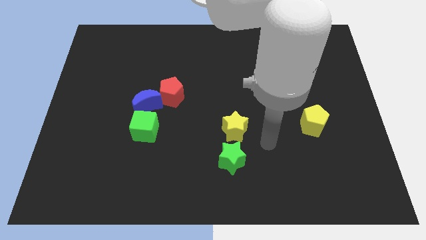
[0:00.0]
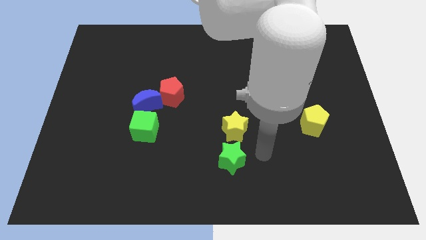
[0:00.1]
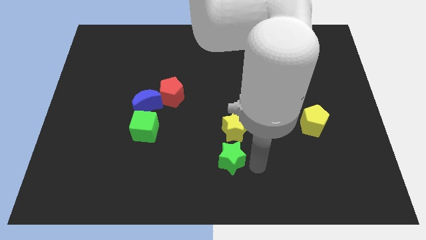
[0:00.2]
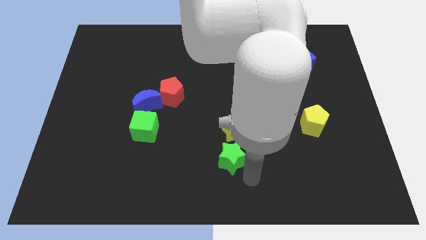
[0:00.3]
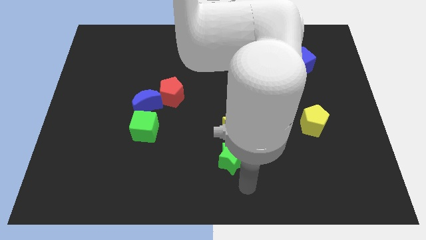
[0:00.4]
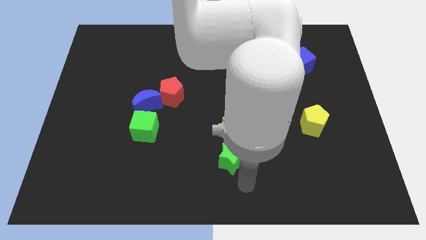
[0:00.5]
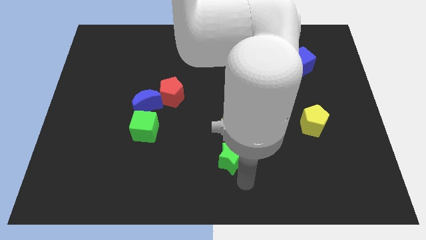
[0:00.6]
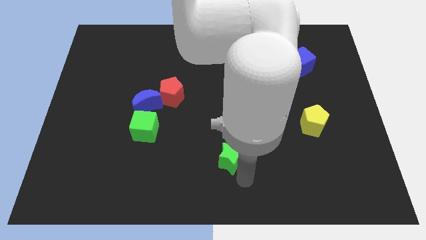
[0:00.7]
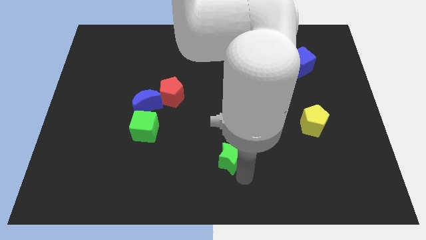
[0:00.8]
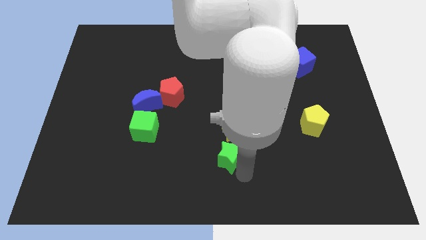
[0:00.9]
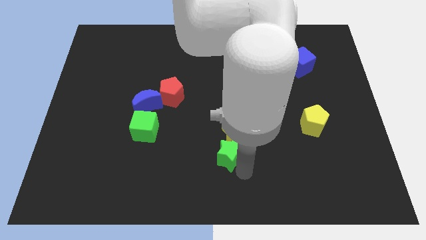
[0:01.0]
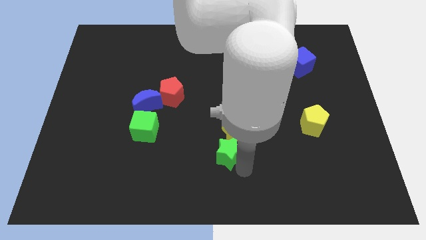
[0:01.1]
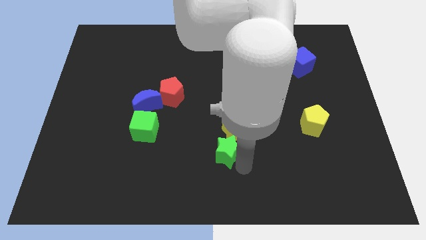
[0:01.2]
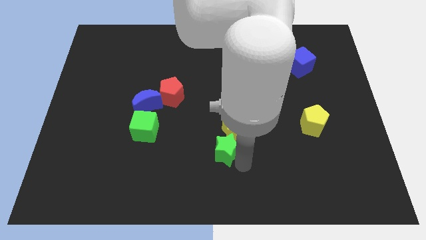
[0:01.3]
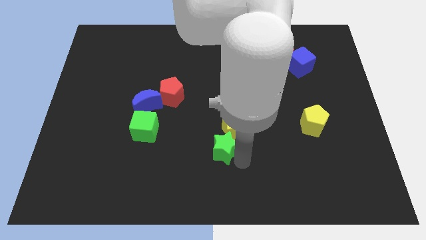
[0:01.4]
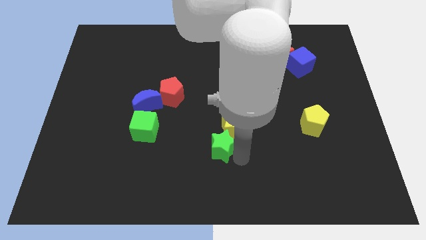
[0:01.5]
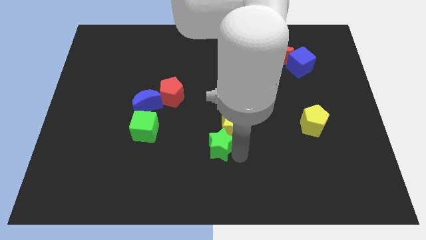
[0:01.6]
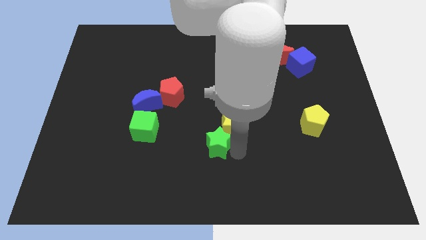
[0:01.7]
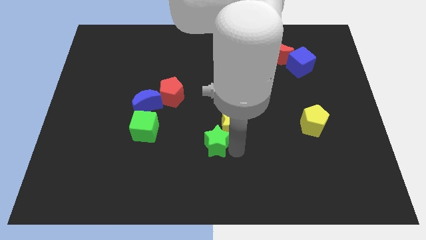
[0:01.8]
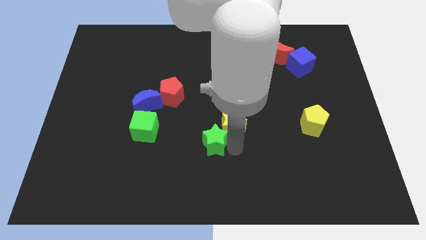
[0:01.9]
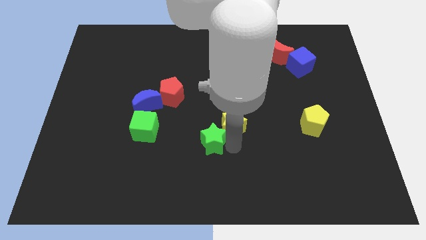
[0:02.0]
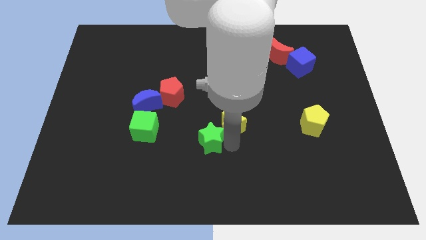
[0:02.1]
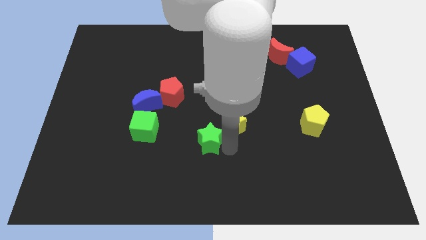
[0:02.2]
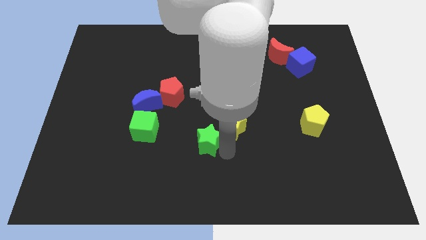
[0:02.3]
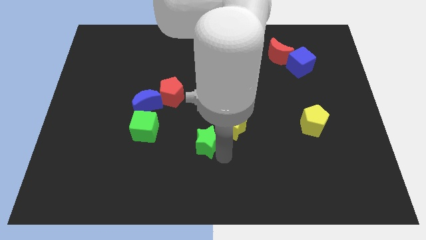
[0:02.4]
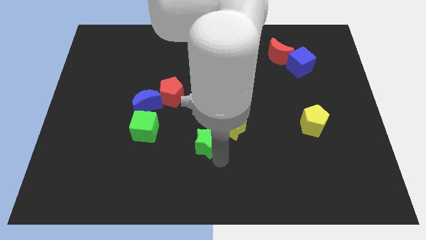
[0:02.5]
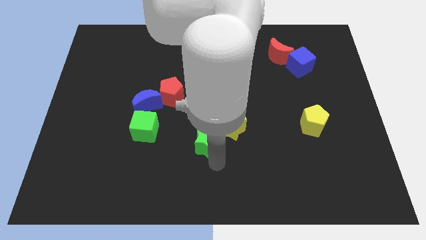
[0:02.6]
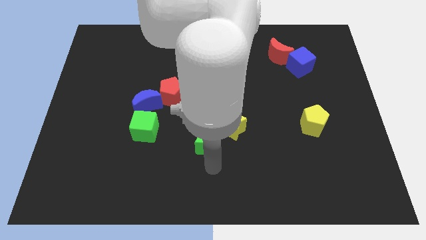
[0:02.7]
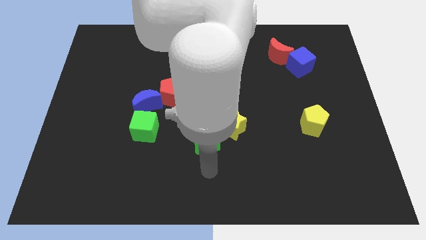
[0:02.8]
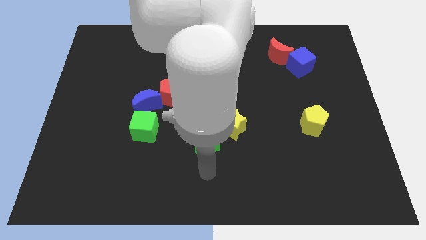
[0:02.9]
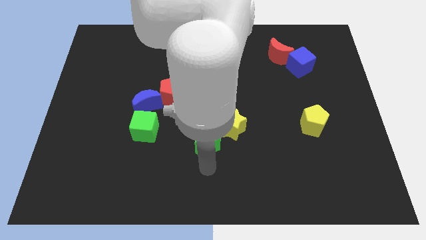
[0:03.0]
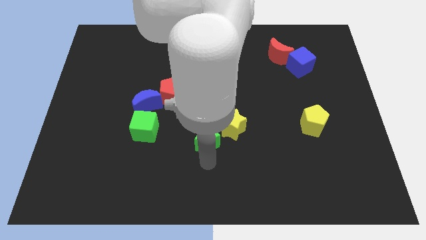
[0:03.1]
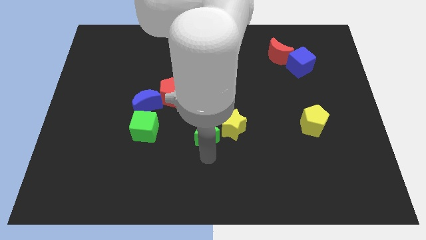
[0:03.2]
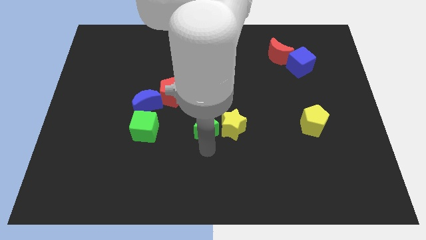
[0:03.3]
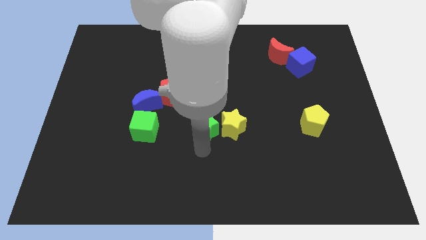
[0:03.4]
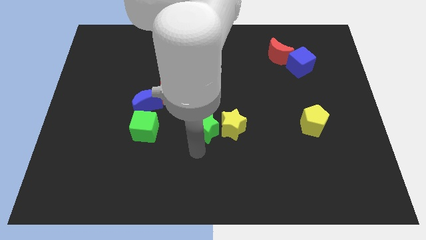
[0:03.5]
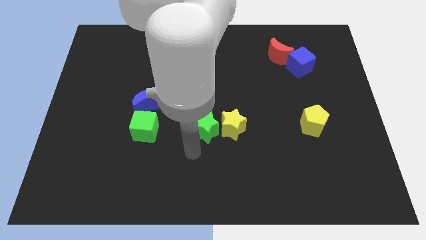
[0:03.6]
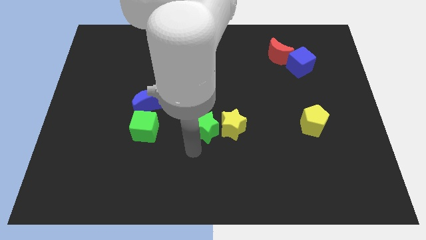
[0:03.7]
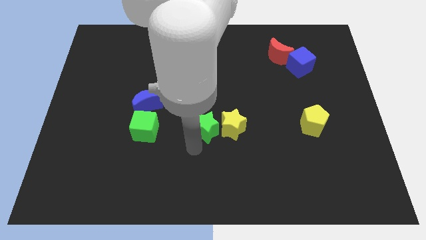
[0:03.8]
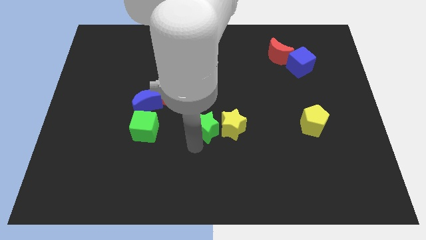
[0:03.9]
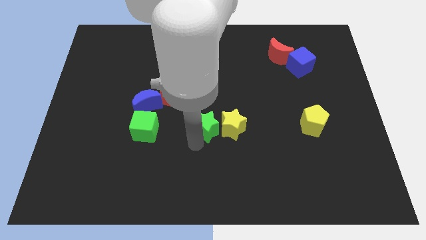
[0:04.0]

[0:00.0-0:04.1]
move the green star a little bit up

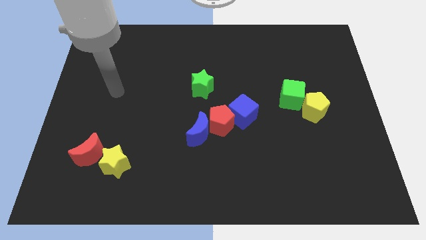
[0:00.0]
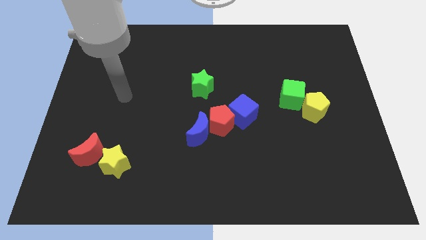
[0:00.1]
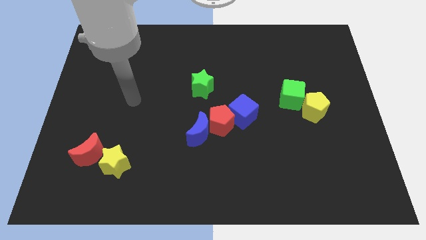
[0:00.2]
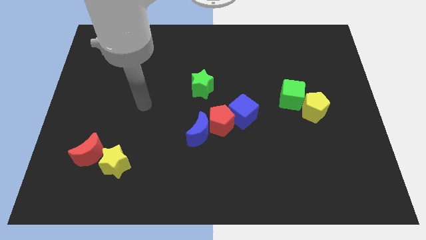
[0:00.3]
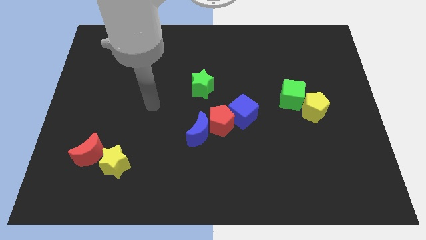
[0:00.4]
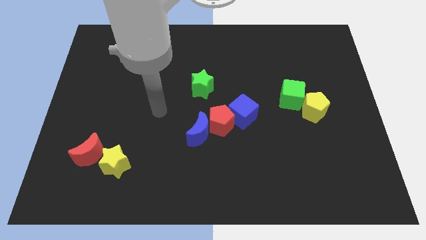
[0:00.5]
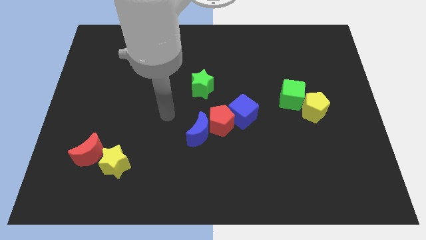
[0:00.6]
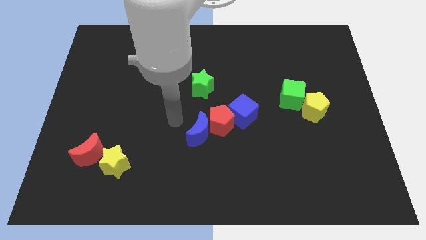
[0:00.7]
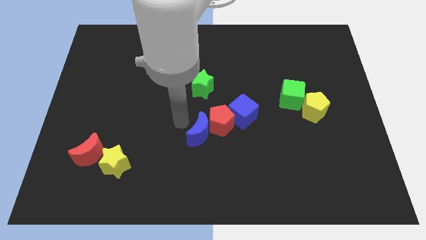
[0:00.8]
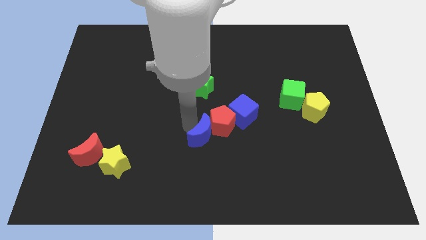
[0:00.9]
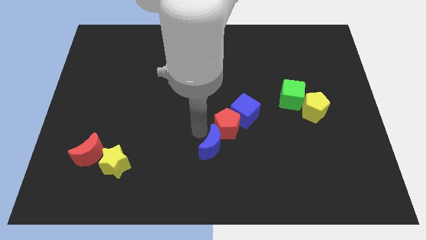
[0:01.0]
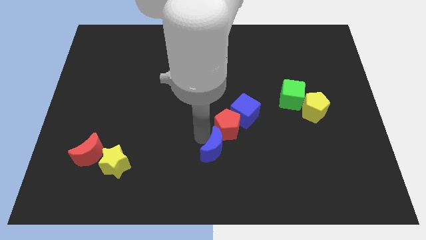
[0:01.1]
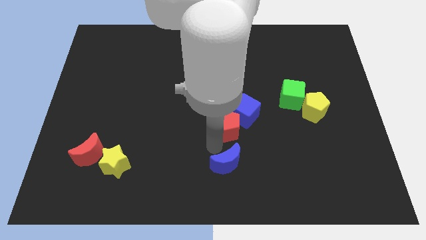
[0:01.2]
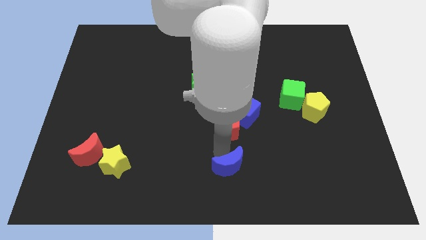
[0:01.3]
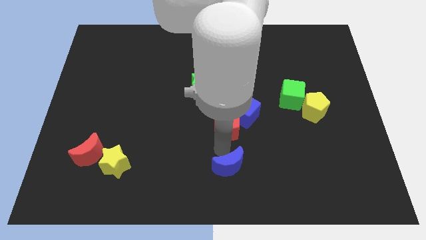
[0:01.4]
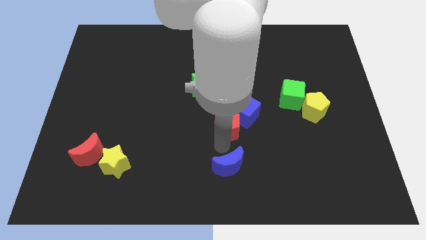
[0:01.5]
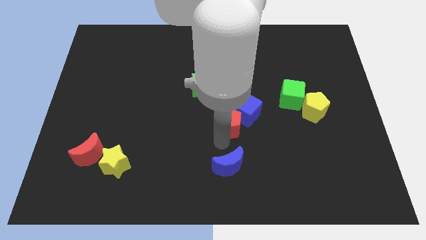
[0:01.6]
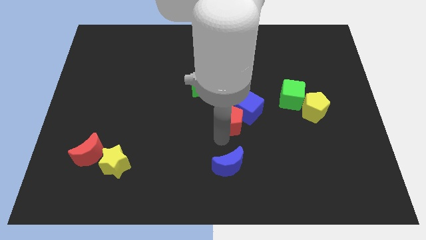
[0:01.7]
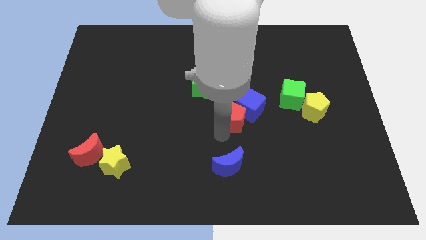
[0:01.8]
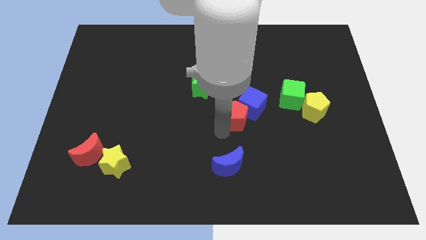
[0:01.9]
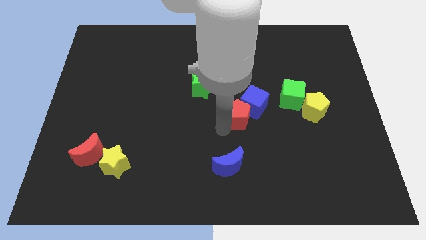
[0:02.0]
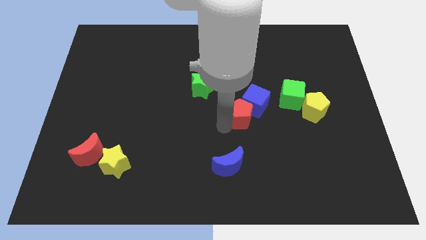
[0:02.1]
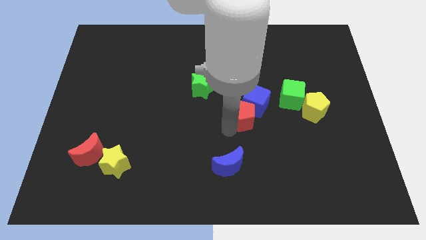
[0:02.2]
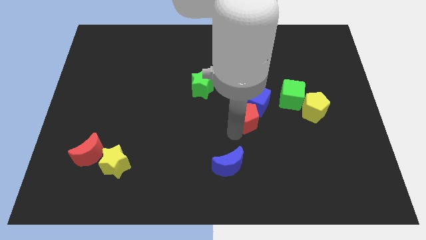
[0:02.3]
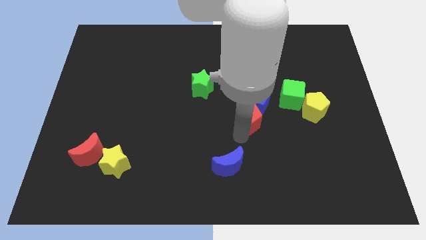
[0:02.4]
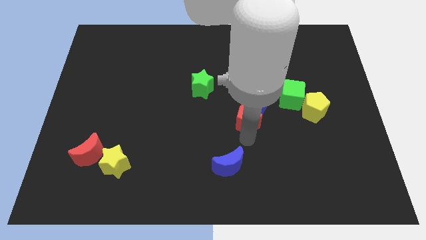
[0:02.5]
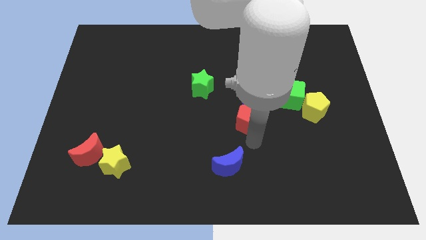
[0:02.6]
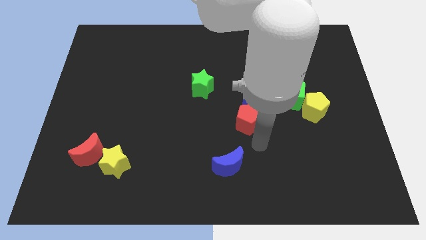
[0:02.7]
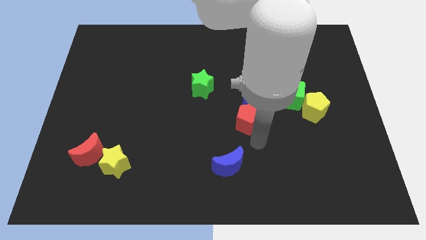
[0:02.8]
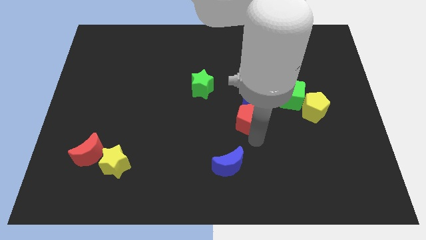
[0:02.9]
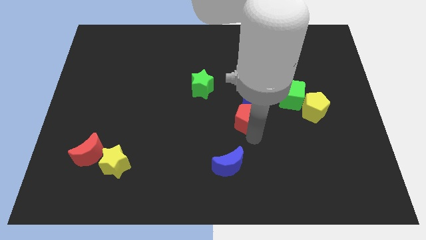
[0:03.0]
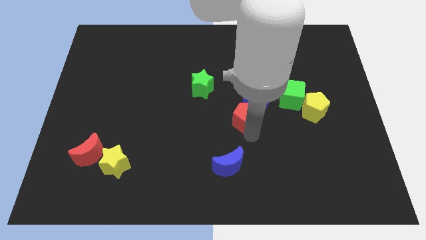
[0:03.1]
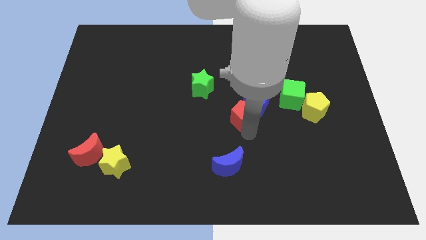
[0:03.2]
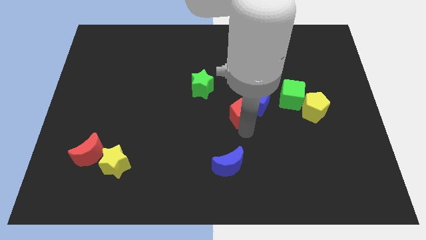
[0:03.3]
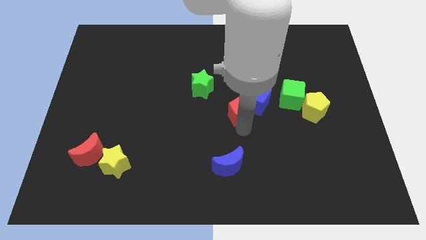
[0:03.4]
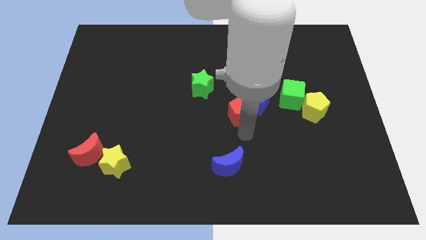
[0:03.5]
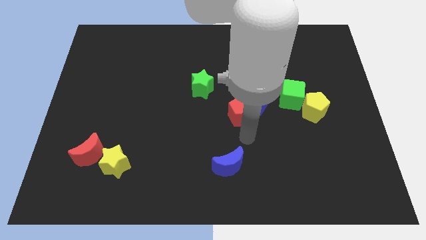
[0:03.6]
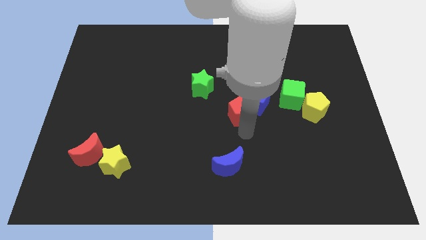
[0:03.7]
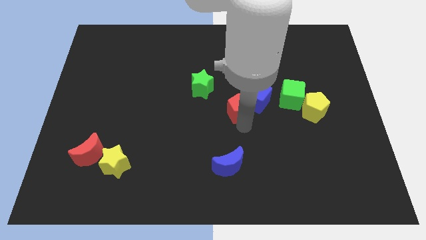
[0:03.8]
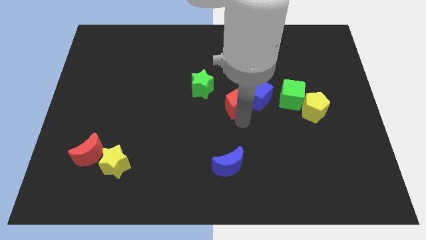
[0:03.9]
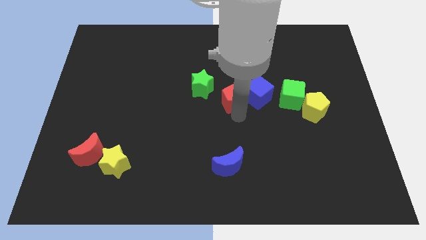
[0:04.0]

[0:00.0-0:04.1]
move the red pentagon a little bit diagonally up and right
